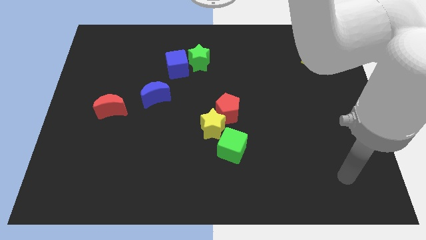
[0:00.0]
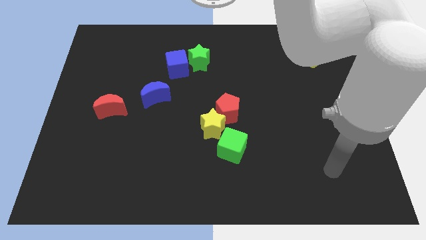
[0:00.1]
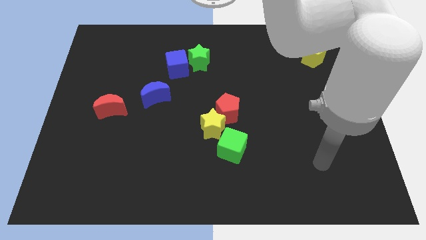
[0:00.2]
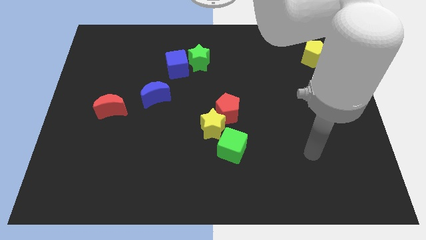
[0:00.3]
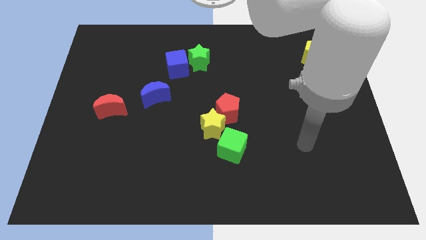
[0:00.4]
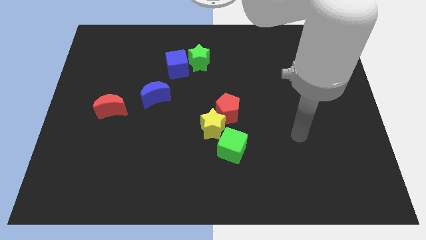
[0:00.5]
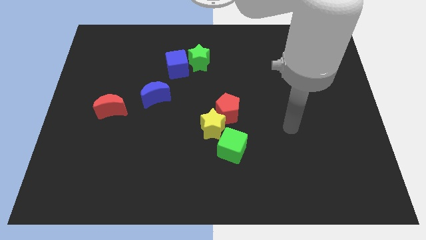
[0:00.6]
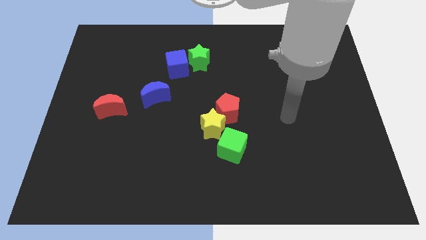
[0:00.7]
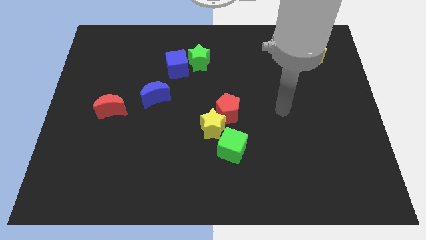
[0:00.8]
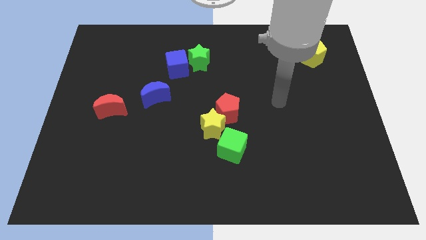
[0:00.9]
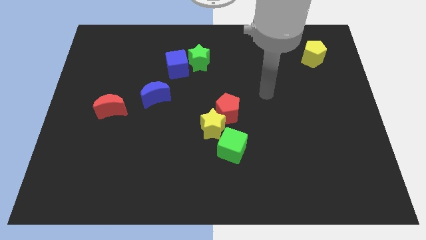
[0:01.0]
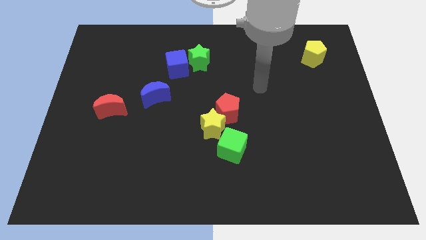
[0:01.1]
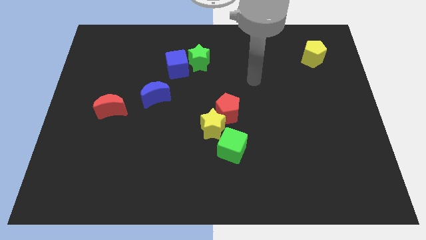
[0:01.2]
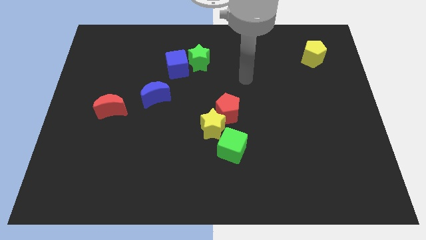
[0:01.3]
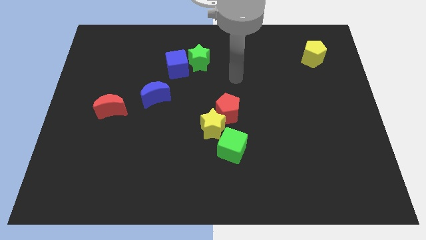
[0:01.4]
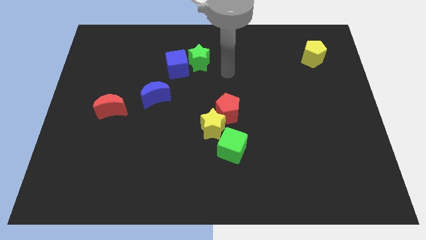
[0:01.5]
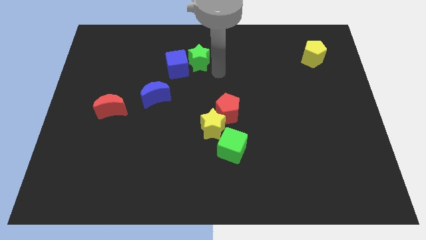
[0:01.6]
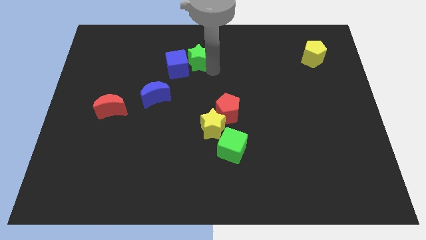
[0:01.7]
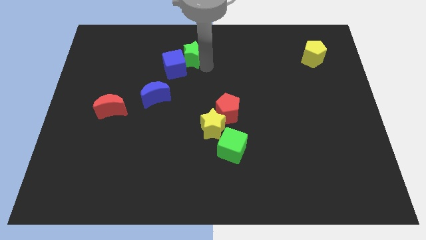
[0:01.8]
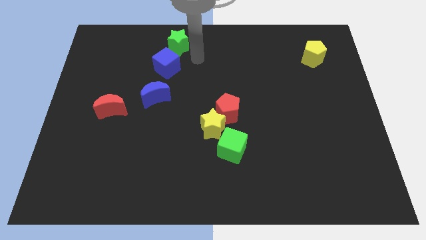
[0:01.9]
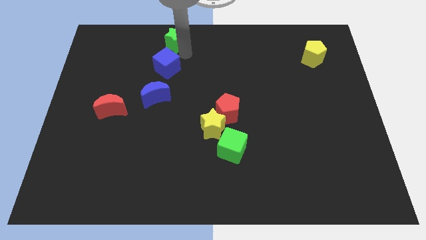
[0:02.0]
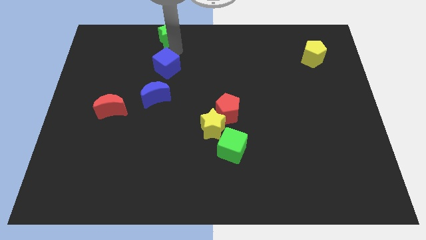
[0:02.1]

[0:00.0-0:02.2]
pull the blue cube apart from the green star

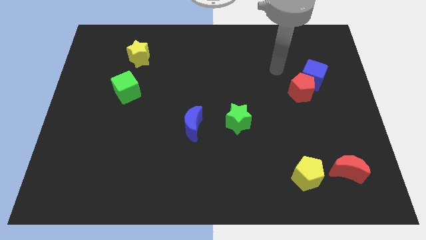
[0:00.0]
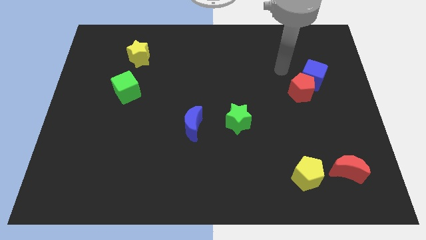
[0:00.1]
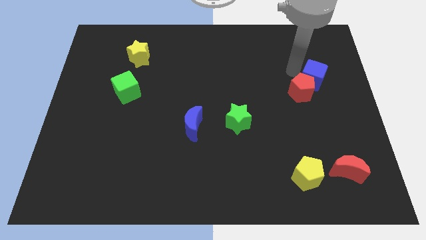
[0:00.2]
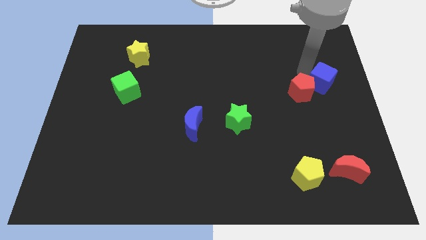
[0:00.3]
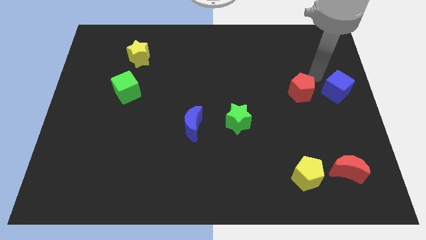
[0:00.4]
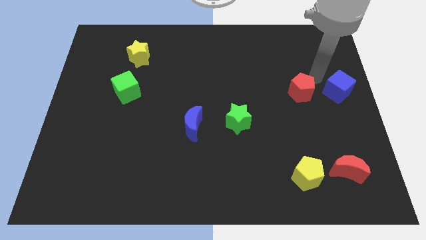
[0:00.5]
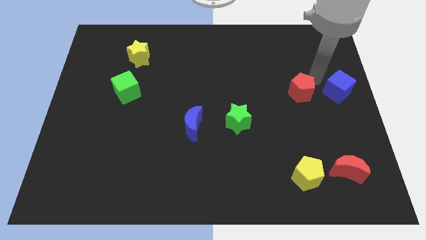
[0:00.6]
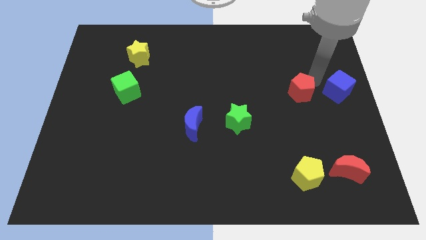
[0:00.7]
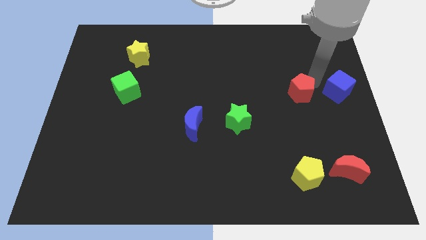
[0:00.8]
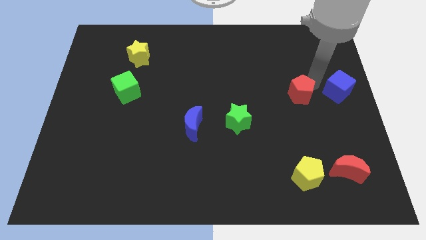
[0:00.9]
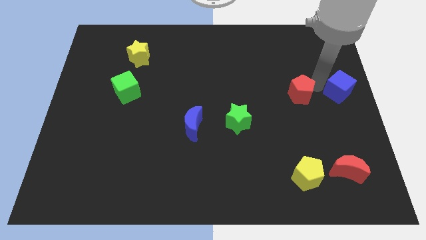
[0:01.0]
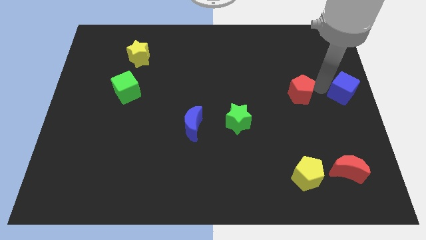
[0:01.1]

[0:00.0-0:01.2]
move the red pentagon away from the blue cube

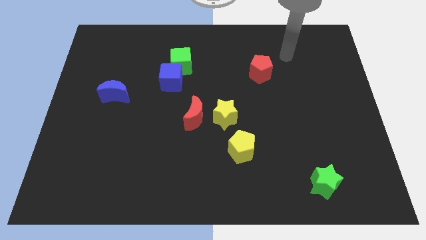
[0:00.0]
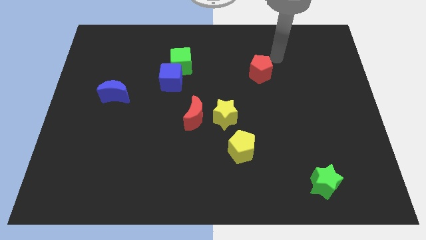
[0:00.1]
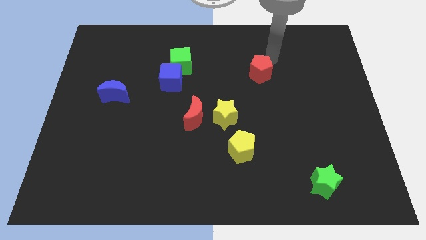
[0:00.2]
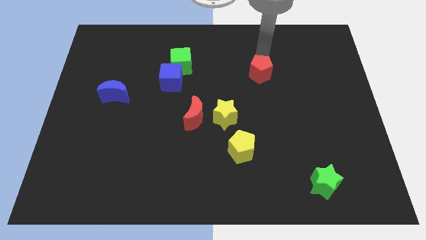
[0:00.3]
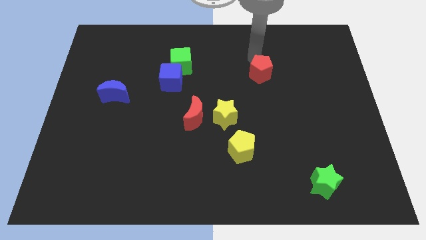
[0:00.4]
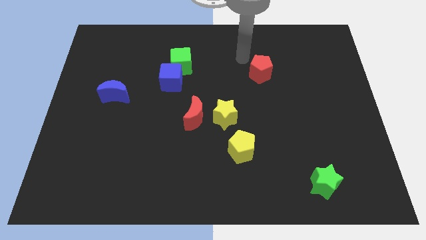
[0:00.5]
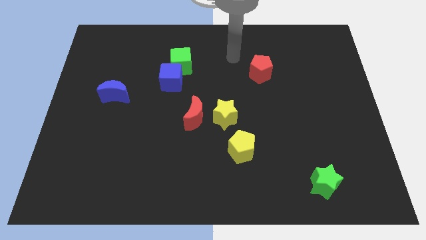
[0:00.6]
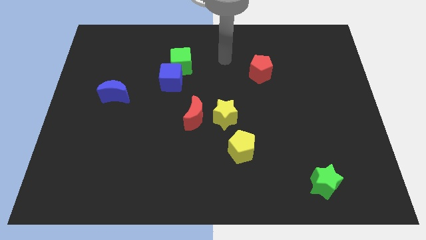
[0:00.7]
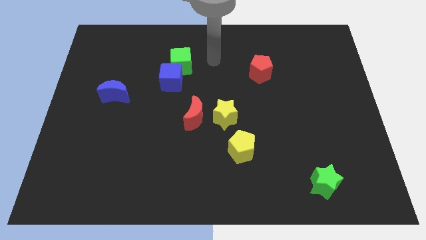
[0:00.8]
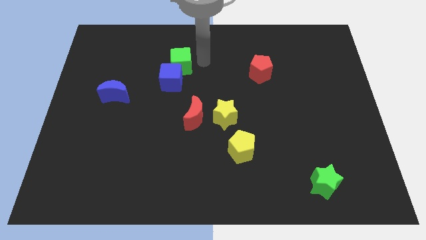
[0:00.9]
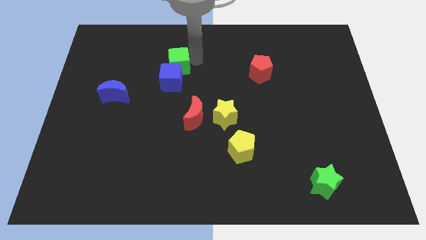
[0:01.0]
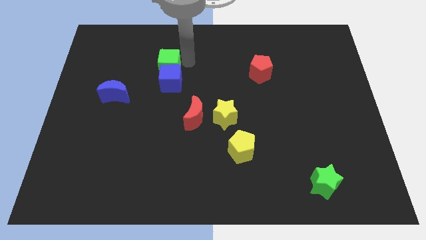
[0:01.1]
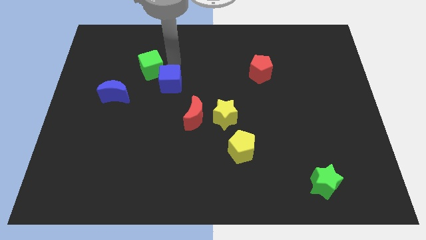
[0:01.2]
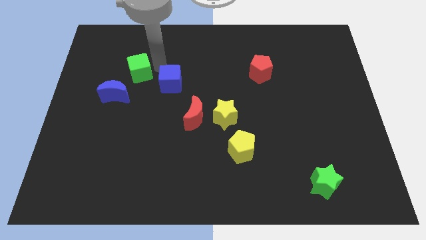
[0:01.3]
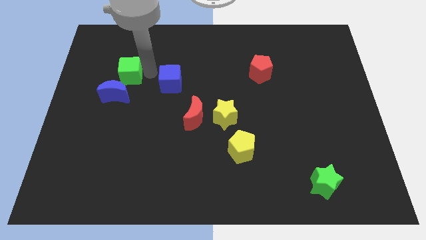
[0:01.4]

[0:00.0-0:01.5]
pull the blue cube apart from the green cube

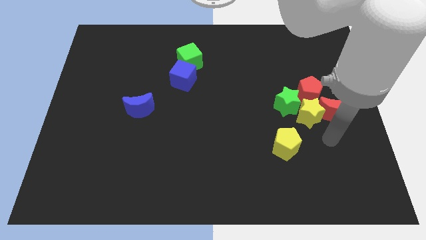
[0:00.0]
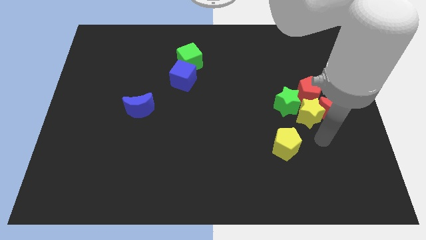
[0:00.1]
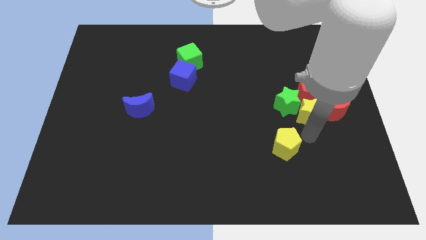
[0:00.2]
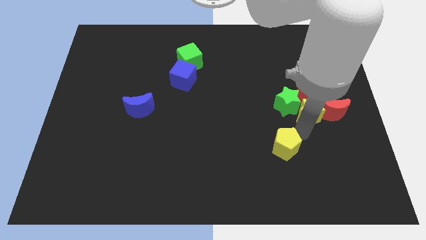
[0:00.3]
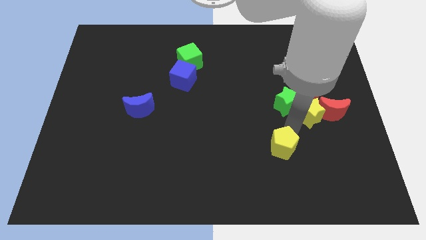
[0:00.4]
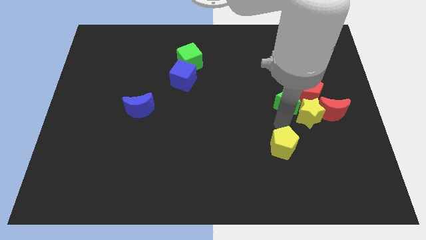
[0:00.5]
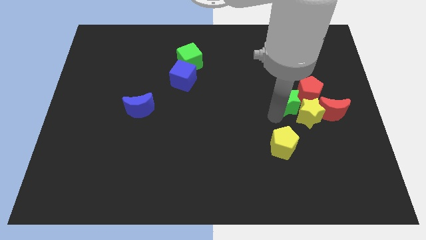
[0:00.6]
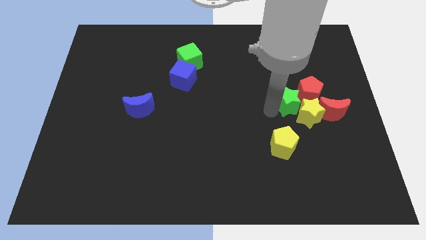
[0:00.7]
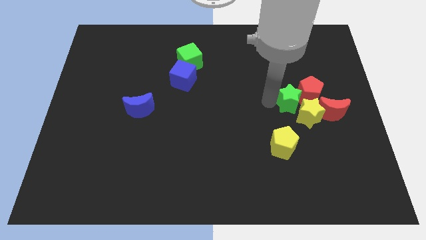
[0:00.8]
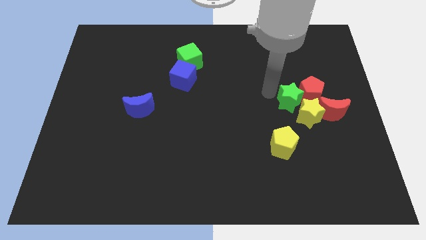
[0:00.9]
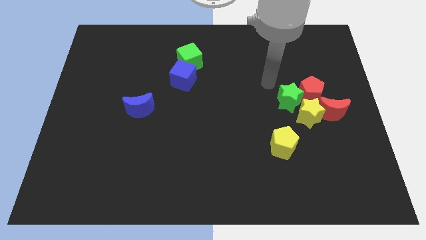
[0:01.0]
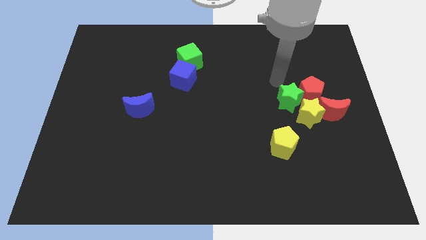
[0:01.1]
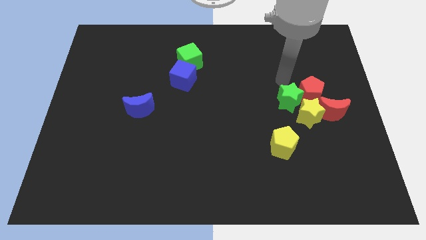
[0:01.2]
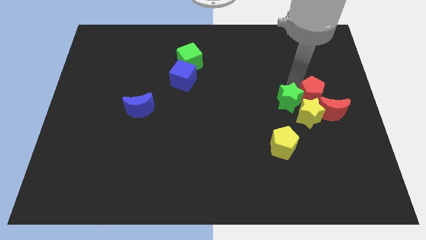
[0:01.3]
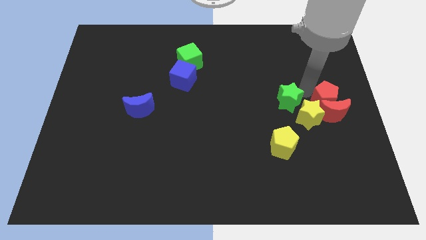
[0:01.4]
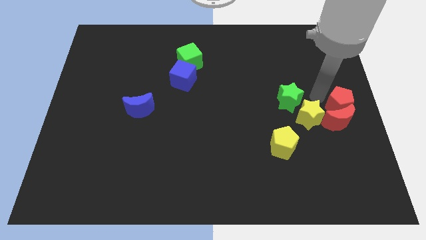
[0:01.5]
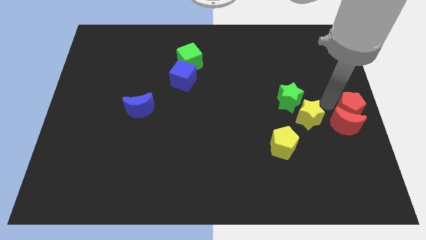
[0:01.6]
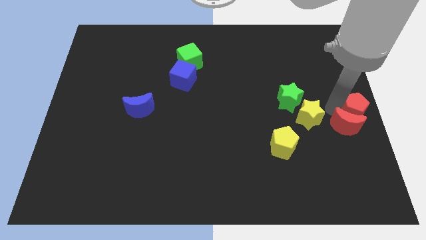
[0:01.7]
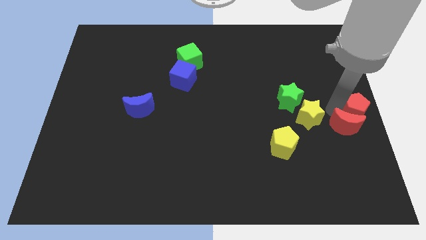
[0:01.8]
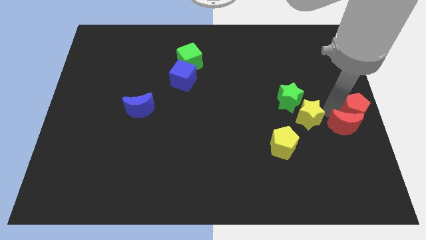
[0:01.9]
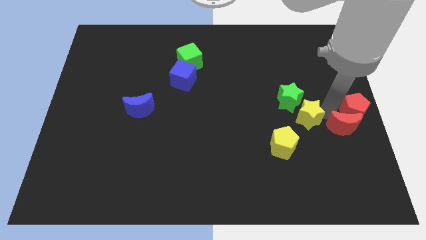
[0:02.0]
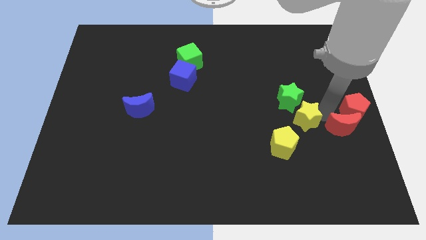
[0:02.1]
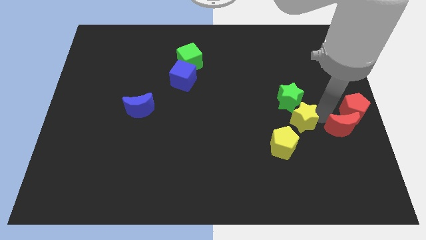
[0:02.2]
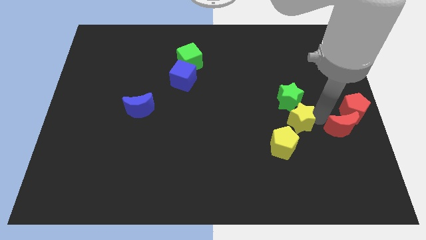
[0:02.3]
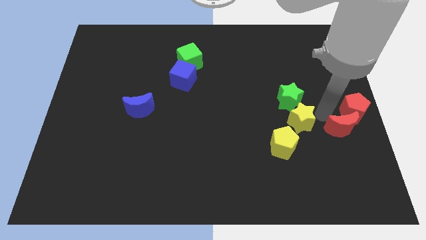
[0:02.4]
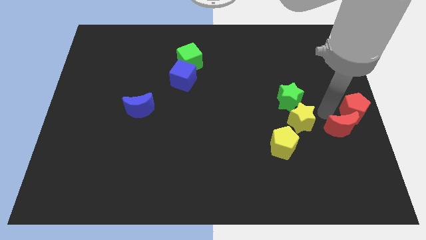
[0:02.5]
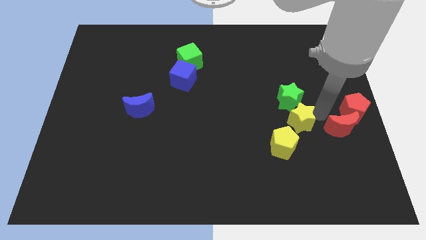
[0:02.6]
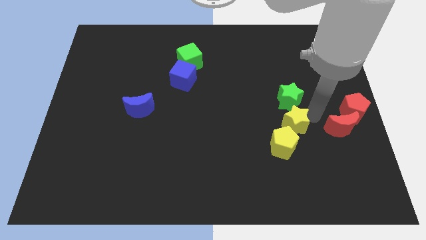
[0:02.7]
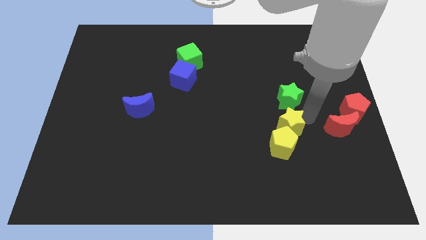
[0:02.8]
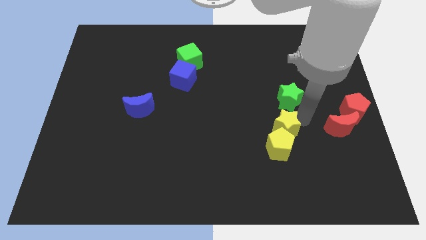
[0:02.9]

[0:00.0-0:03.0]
pull the yellow star apart from the clump

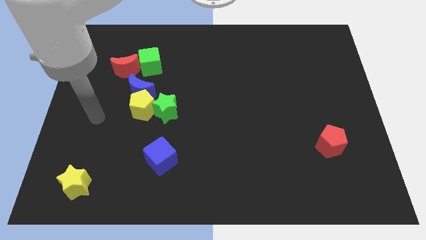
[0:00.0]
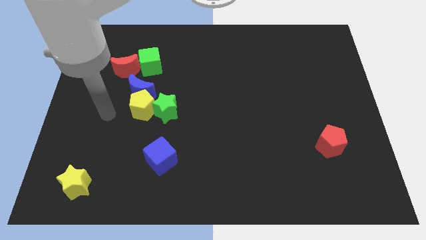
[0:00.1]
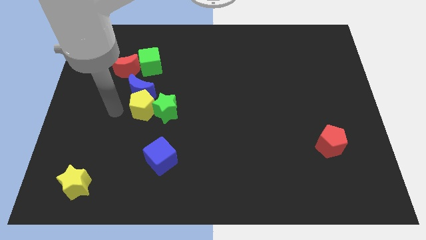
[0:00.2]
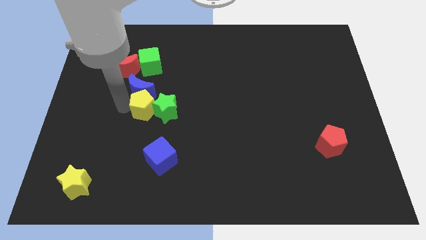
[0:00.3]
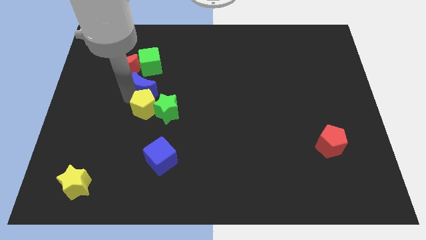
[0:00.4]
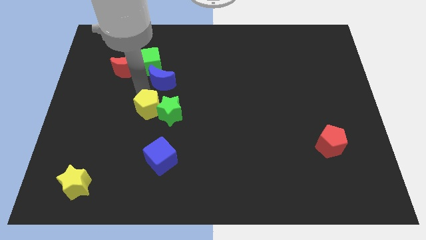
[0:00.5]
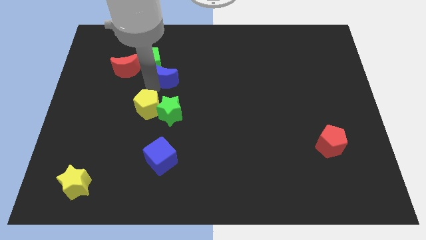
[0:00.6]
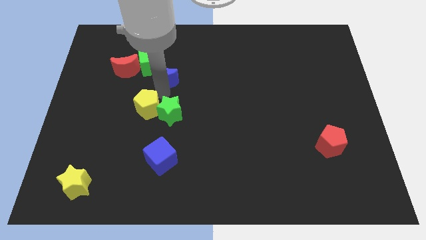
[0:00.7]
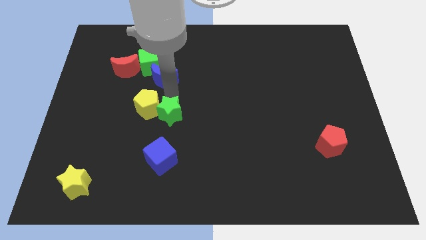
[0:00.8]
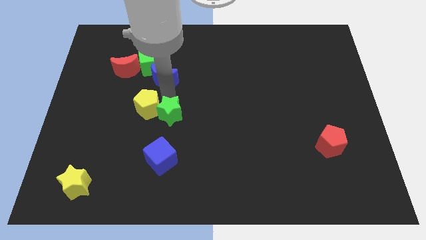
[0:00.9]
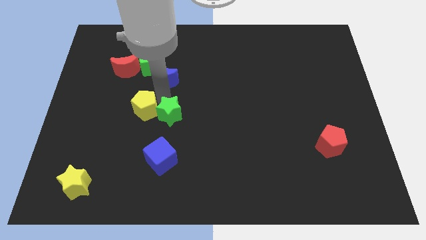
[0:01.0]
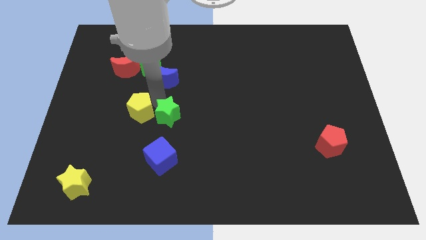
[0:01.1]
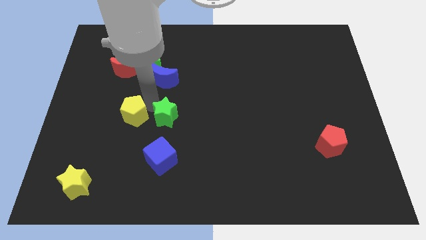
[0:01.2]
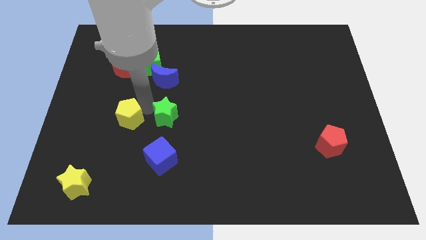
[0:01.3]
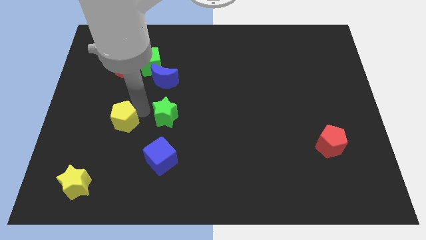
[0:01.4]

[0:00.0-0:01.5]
pull the yellow pentagon apart from the blue moon and green star
